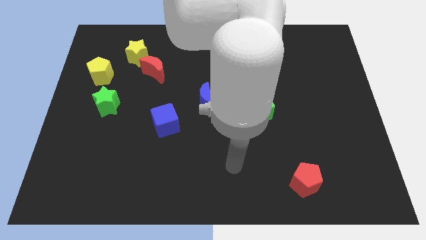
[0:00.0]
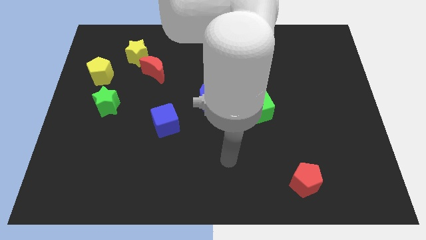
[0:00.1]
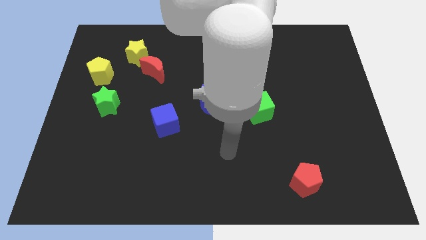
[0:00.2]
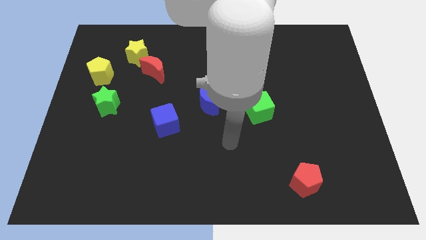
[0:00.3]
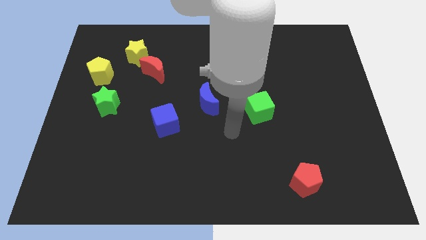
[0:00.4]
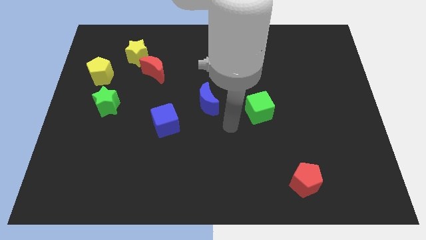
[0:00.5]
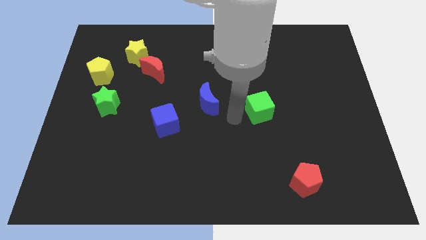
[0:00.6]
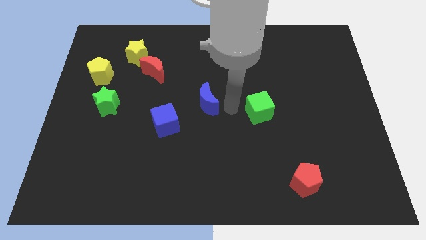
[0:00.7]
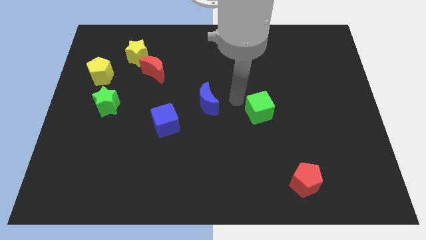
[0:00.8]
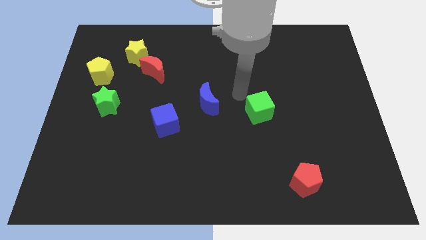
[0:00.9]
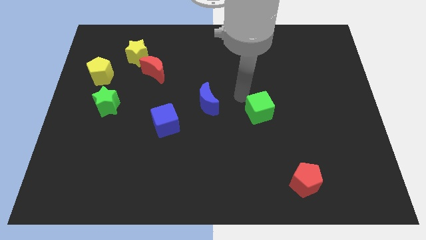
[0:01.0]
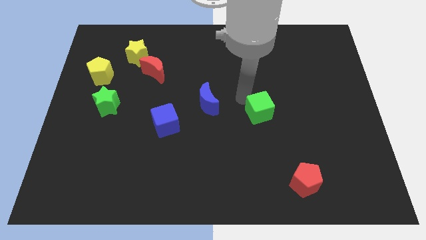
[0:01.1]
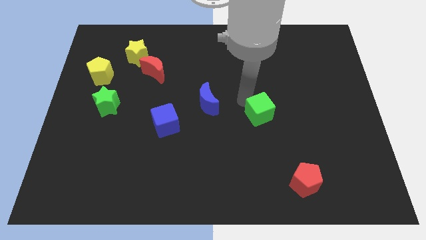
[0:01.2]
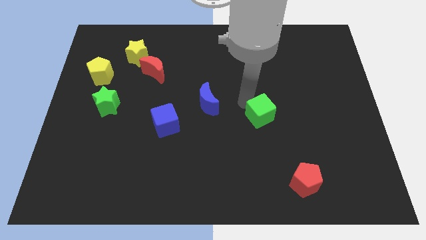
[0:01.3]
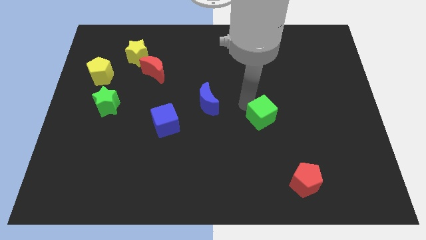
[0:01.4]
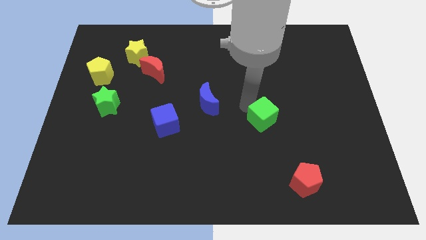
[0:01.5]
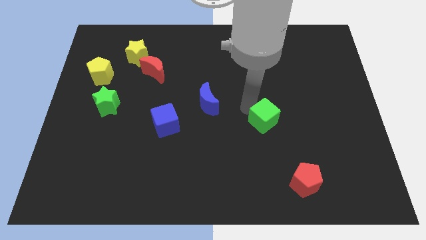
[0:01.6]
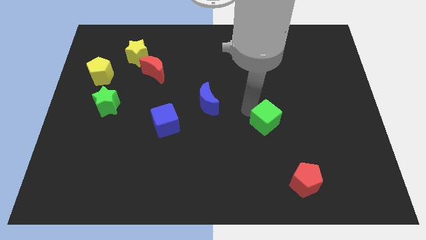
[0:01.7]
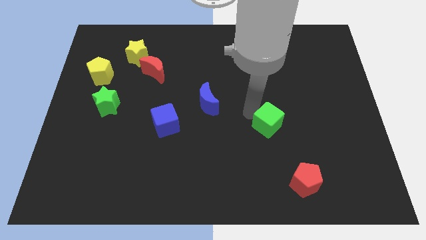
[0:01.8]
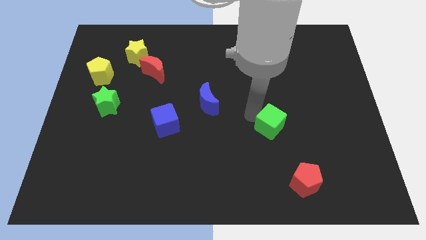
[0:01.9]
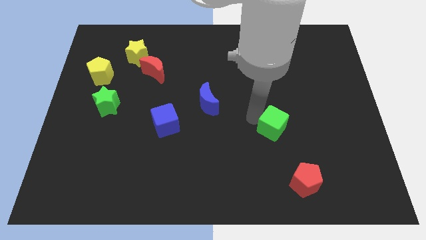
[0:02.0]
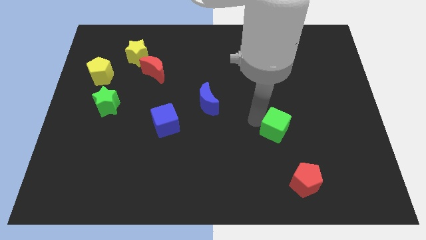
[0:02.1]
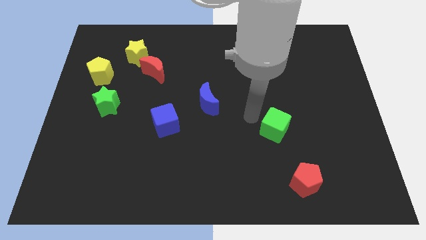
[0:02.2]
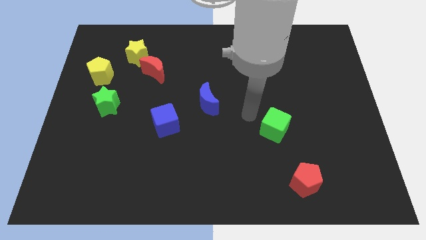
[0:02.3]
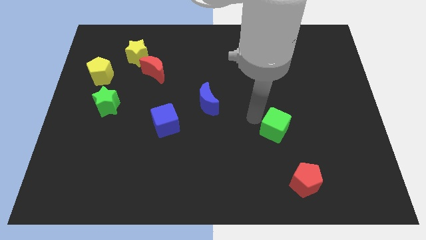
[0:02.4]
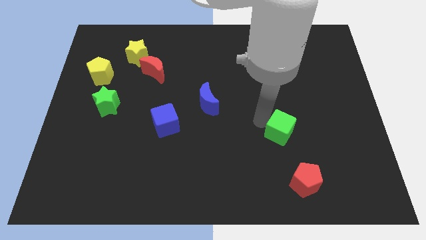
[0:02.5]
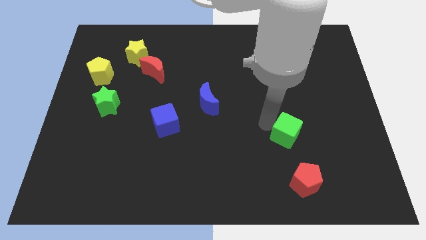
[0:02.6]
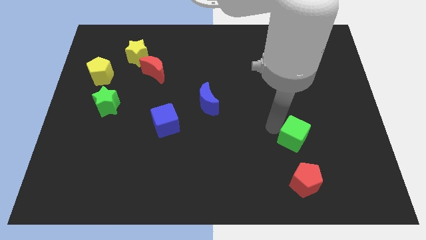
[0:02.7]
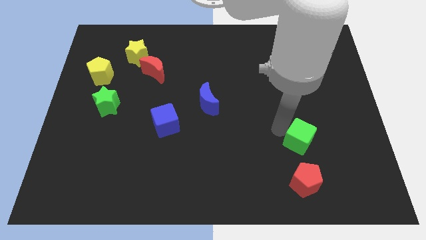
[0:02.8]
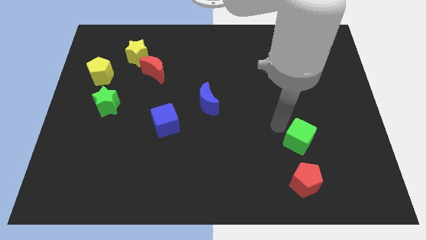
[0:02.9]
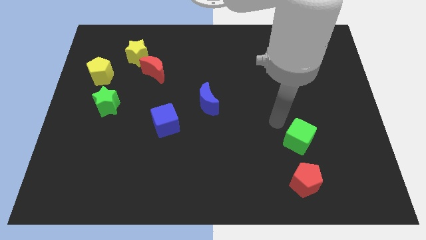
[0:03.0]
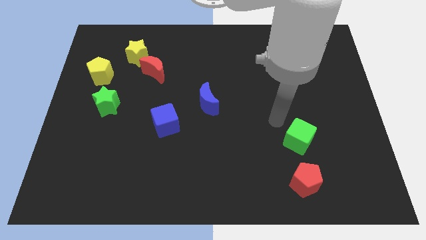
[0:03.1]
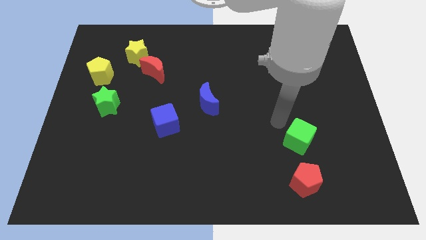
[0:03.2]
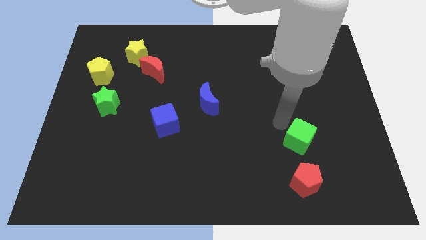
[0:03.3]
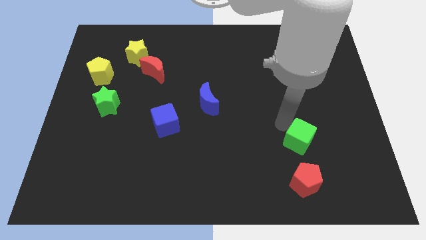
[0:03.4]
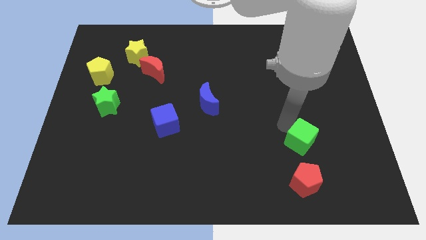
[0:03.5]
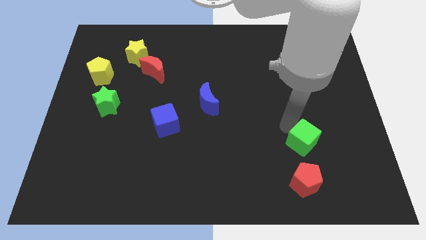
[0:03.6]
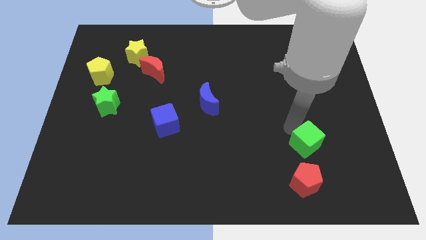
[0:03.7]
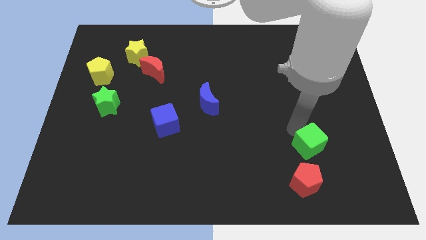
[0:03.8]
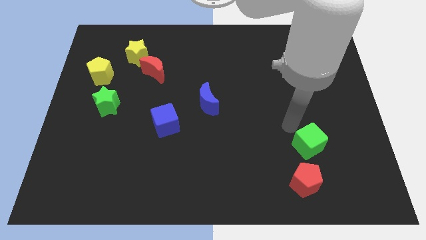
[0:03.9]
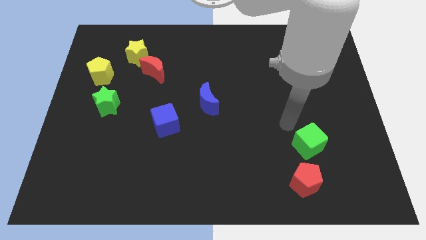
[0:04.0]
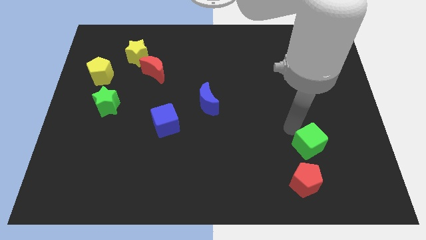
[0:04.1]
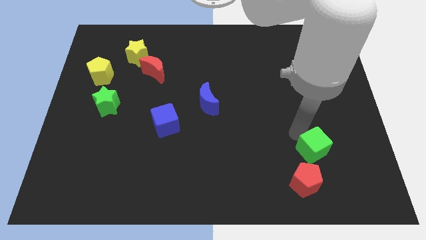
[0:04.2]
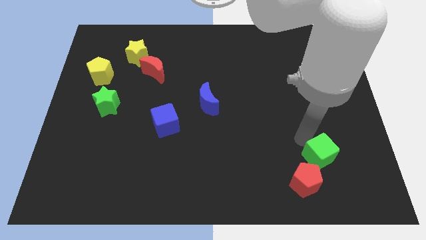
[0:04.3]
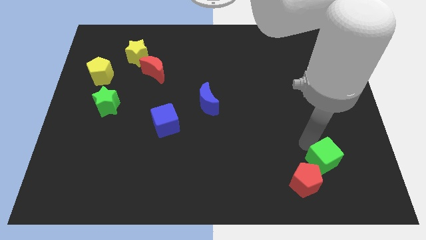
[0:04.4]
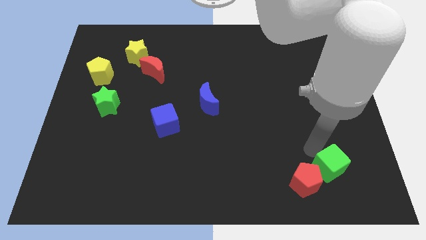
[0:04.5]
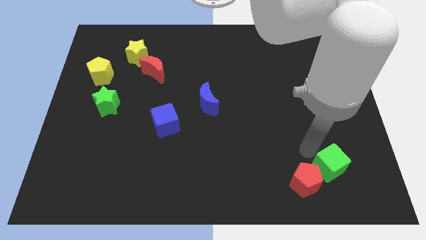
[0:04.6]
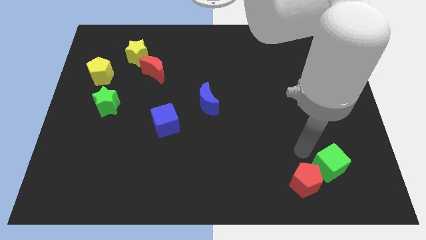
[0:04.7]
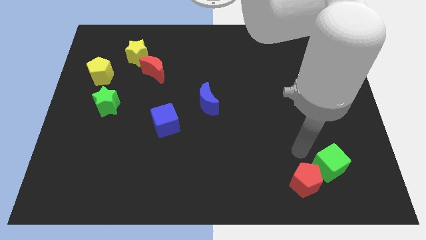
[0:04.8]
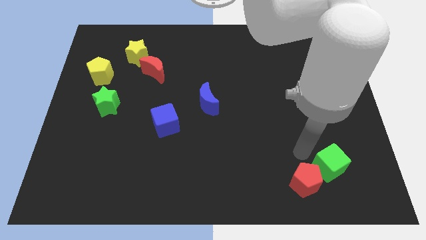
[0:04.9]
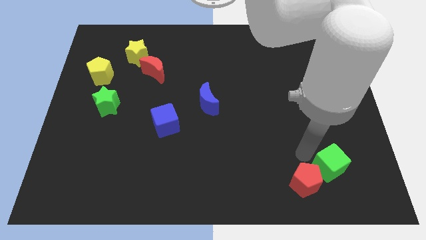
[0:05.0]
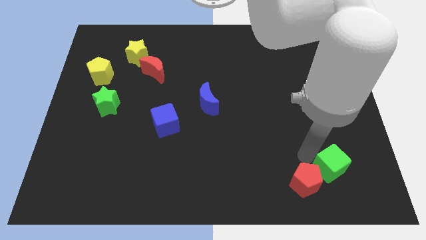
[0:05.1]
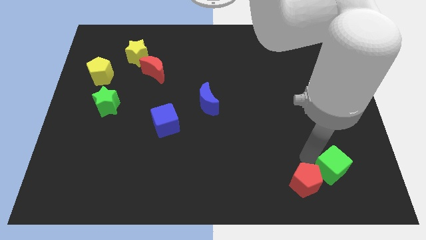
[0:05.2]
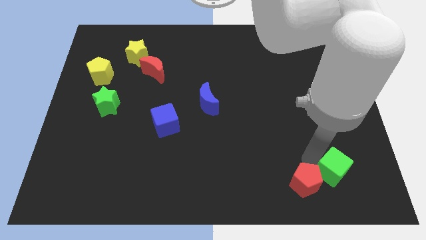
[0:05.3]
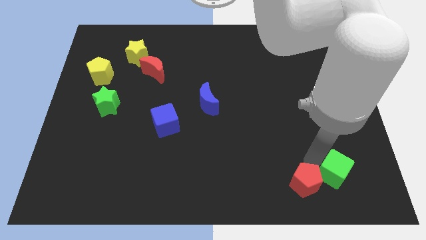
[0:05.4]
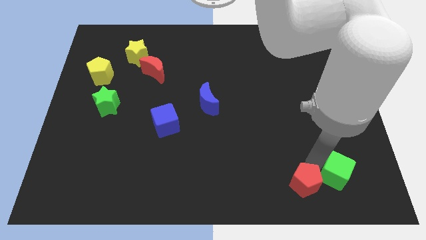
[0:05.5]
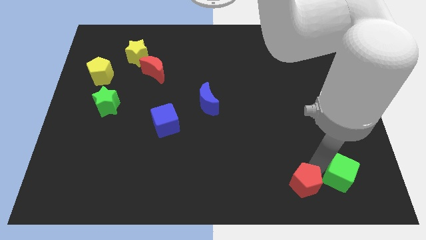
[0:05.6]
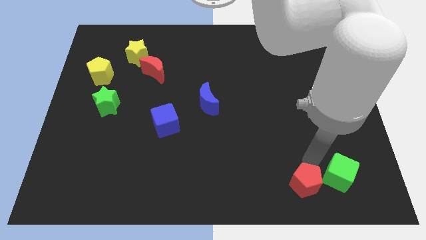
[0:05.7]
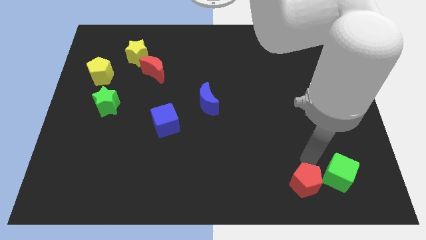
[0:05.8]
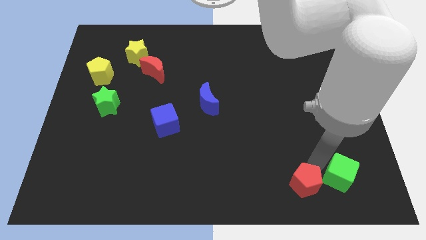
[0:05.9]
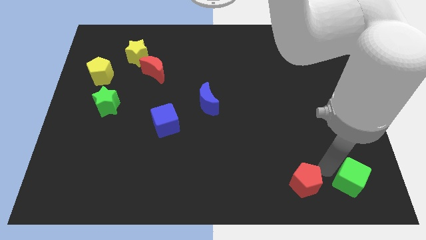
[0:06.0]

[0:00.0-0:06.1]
push the green cube to the bottom right corner
